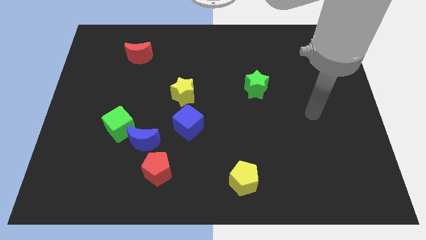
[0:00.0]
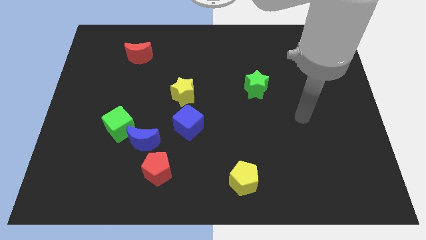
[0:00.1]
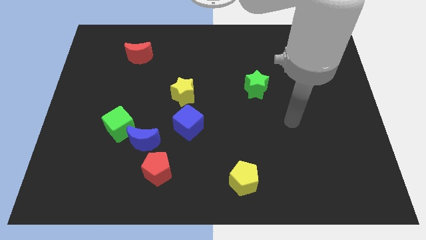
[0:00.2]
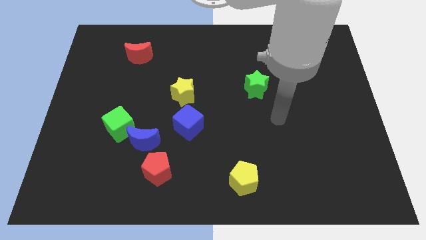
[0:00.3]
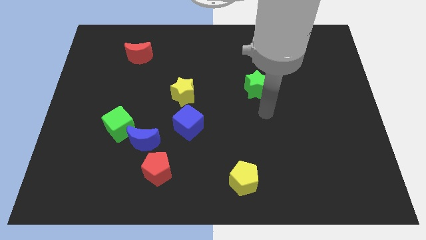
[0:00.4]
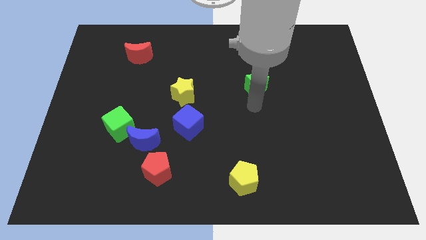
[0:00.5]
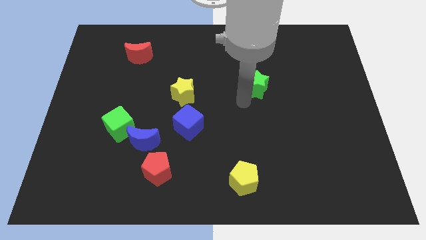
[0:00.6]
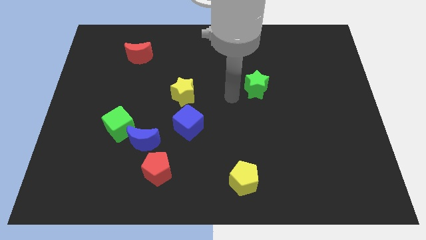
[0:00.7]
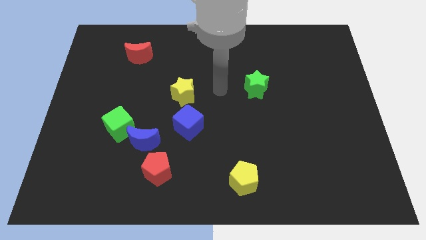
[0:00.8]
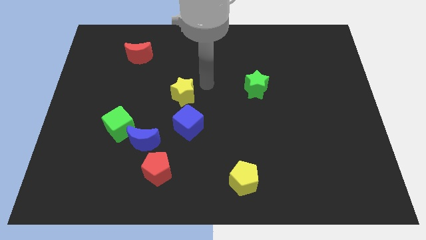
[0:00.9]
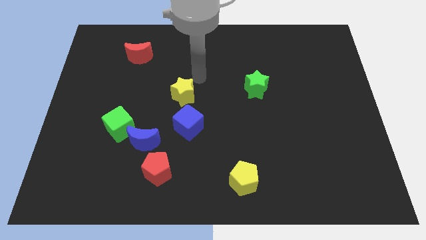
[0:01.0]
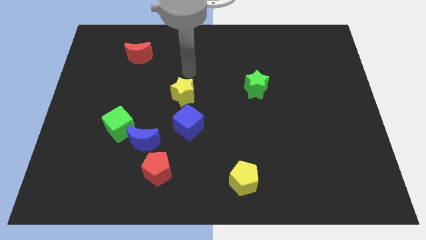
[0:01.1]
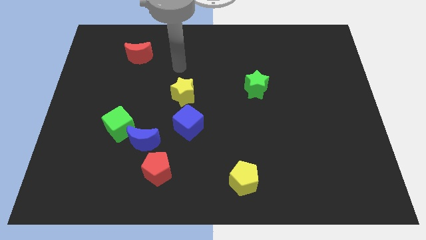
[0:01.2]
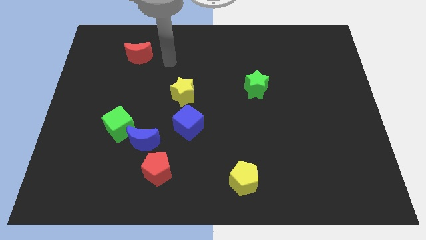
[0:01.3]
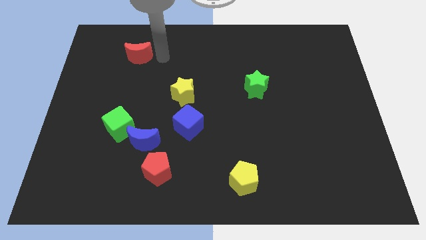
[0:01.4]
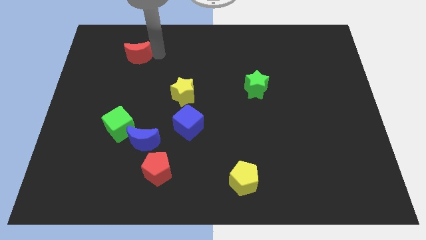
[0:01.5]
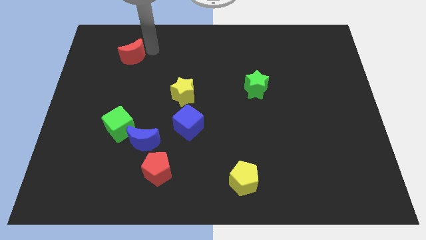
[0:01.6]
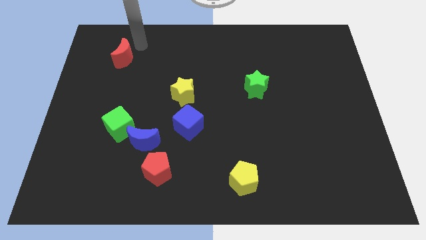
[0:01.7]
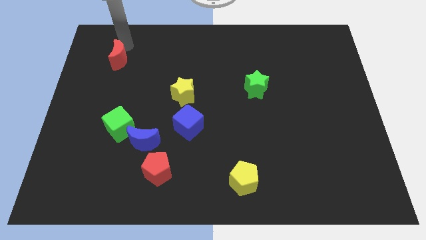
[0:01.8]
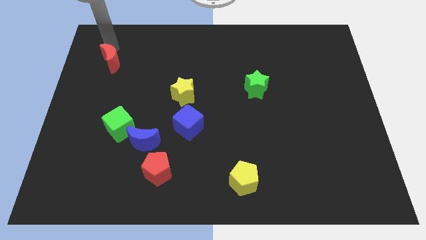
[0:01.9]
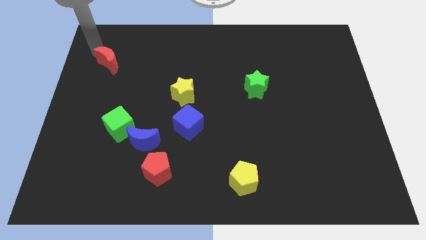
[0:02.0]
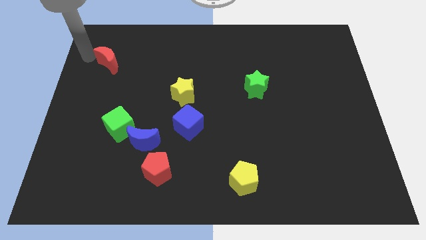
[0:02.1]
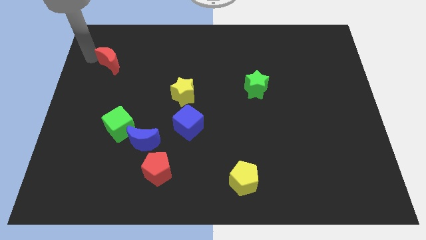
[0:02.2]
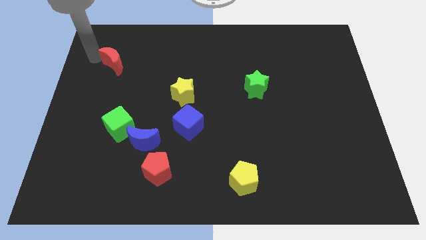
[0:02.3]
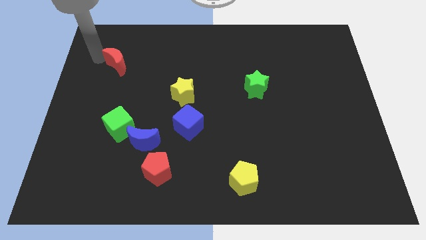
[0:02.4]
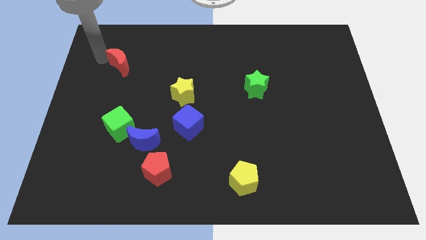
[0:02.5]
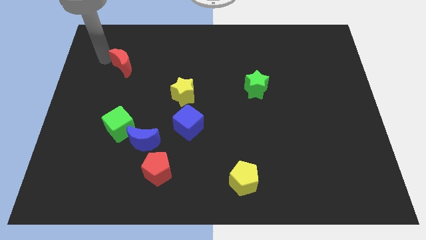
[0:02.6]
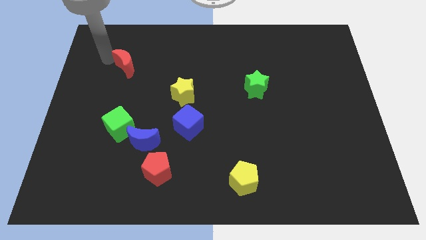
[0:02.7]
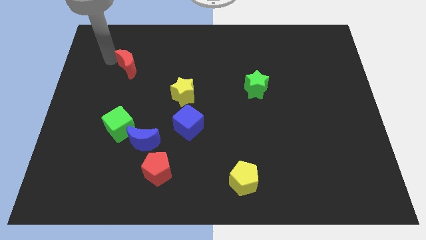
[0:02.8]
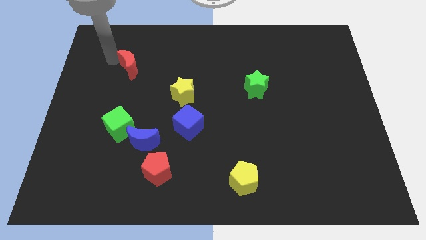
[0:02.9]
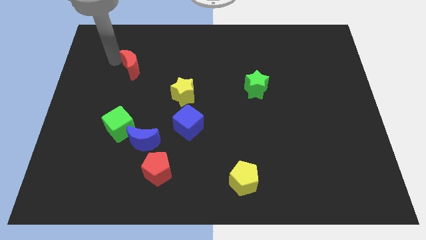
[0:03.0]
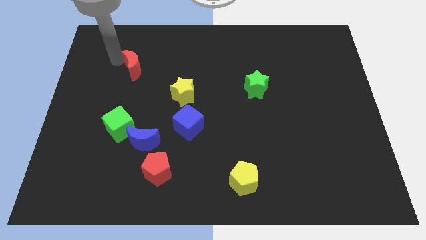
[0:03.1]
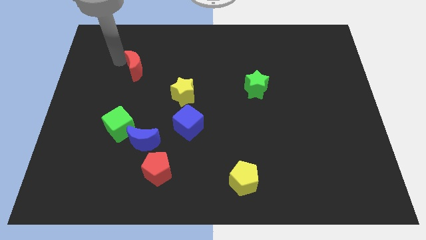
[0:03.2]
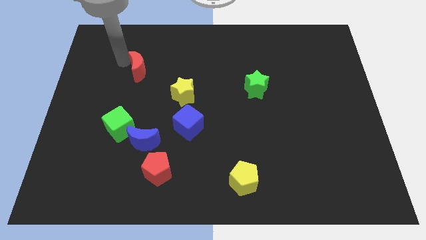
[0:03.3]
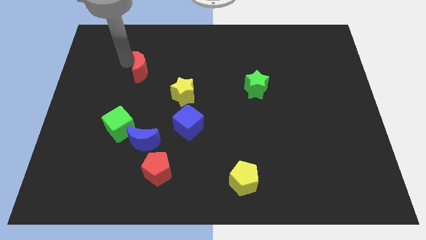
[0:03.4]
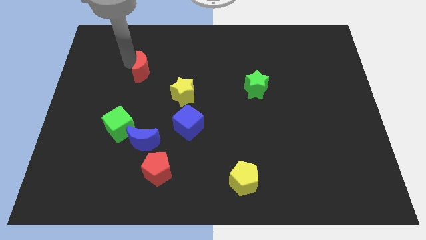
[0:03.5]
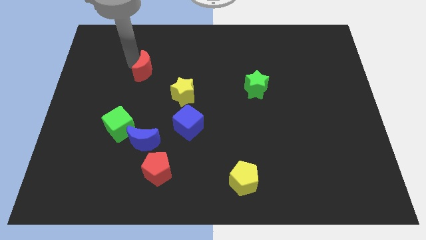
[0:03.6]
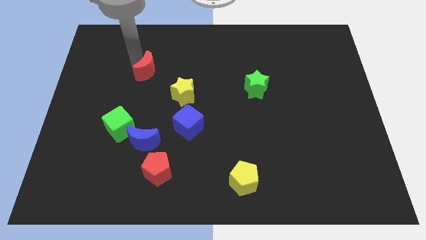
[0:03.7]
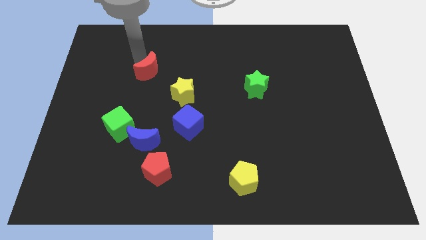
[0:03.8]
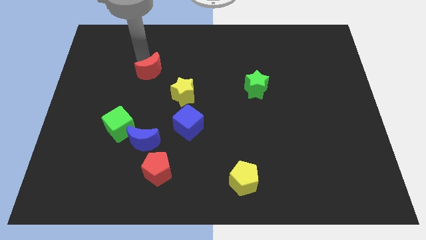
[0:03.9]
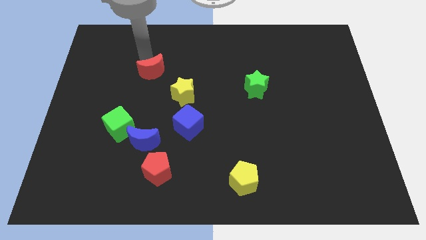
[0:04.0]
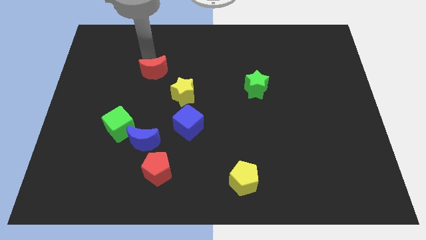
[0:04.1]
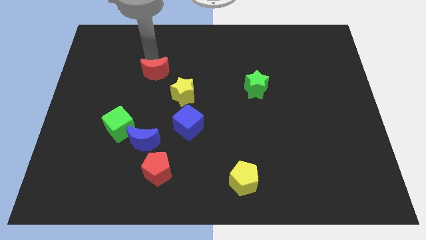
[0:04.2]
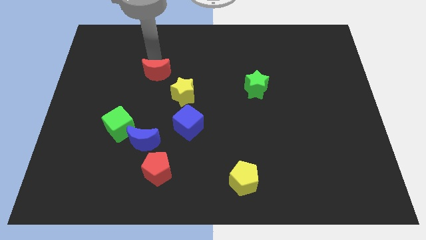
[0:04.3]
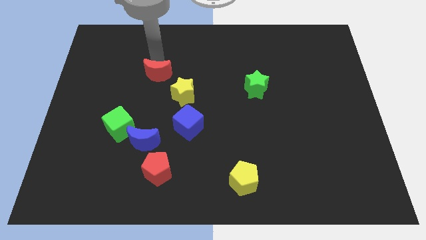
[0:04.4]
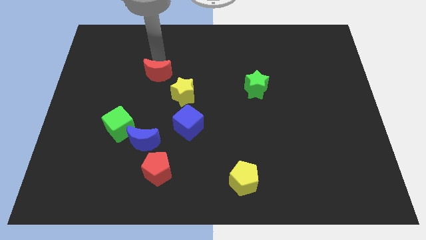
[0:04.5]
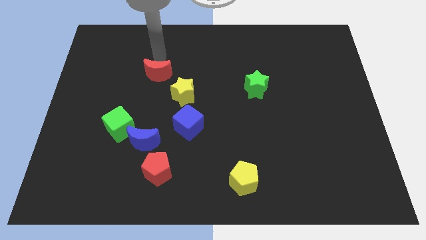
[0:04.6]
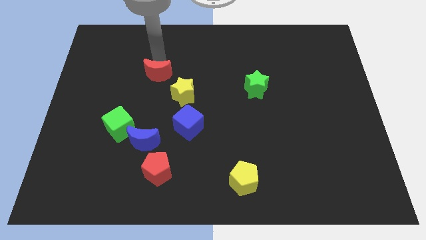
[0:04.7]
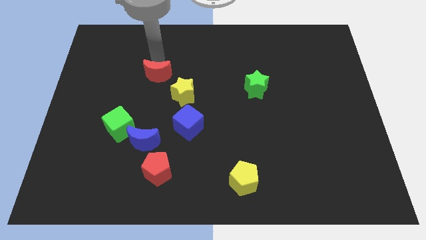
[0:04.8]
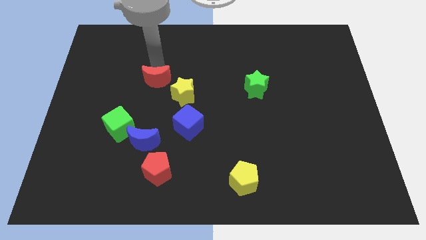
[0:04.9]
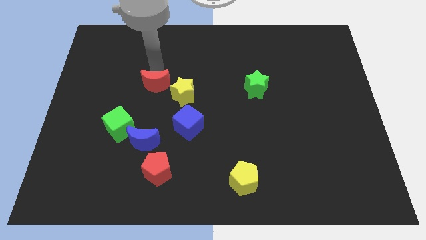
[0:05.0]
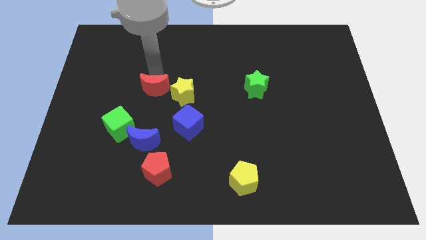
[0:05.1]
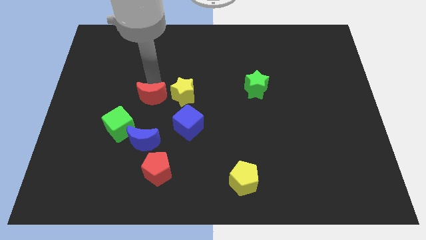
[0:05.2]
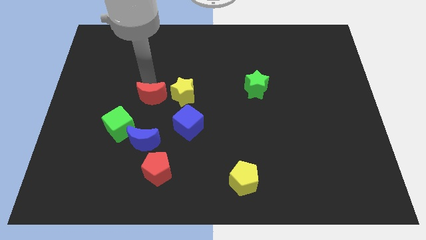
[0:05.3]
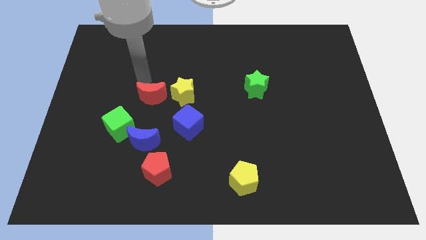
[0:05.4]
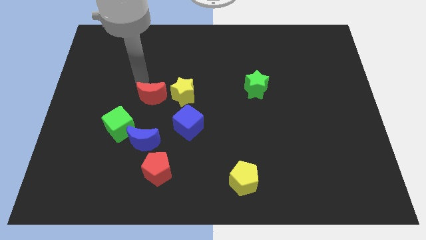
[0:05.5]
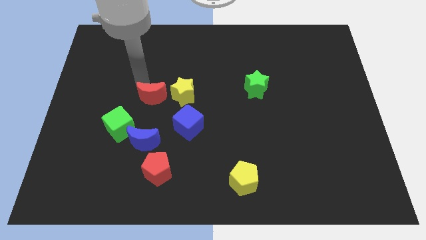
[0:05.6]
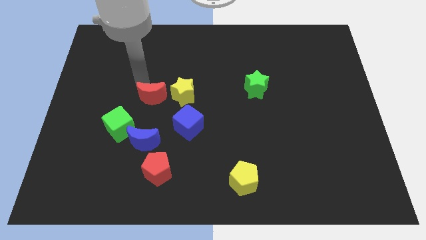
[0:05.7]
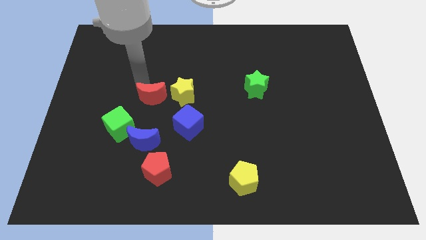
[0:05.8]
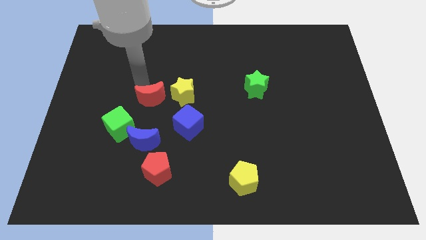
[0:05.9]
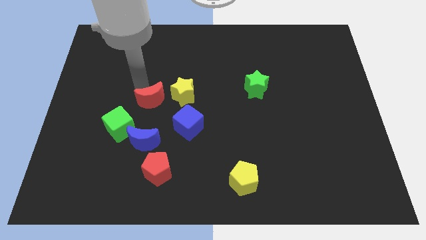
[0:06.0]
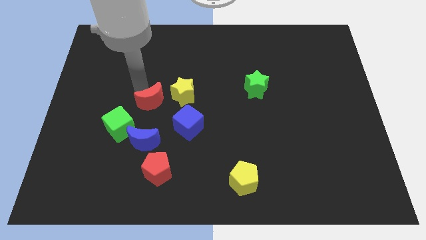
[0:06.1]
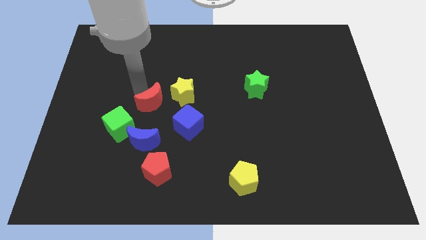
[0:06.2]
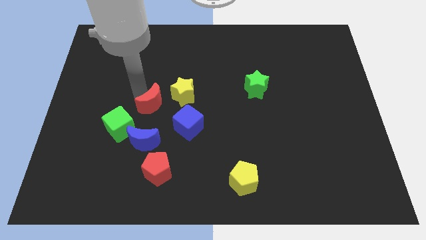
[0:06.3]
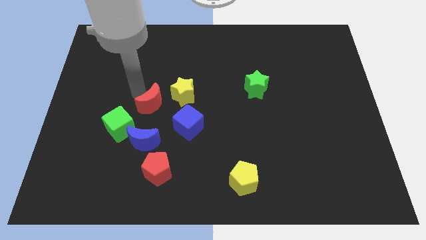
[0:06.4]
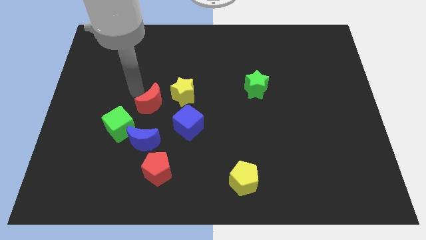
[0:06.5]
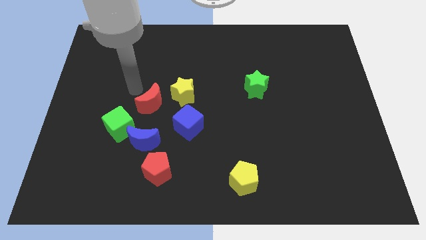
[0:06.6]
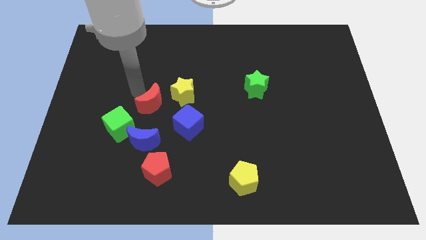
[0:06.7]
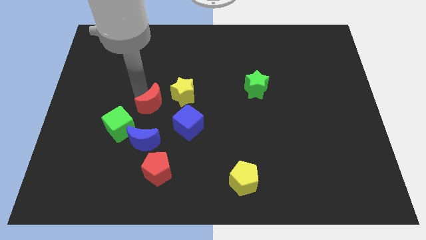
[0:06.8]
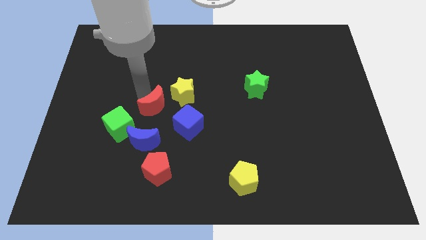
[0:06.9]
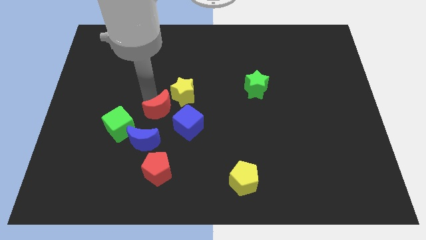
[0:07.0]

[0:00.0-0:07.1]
slide the red moon above the red pentagon
